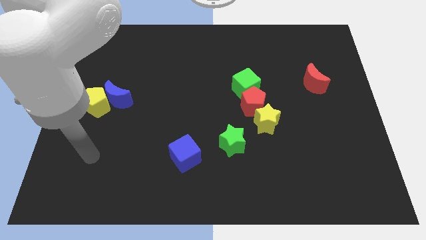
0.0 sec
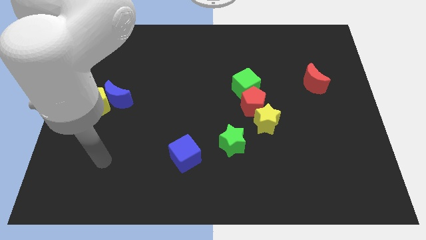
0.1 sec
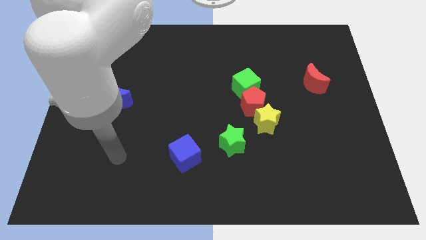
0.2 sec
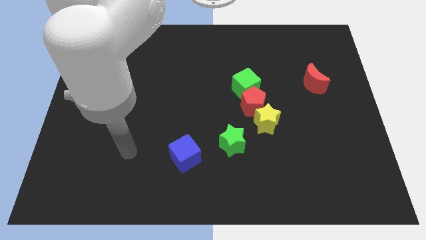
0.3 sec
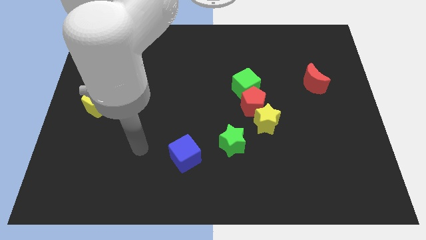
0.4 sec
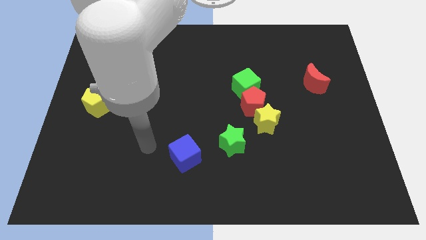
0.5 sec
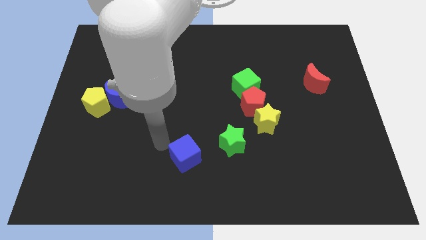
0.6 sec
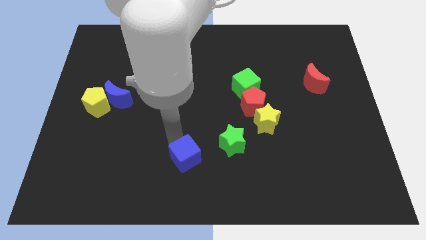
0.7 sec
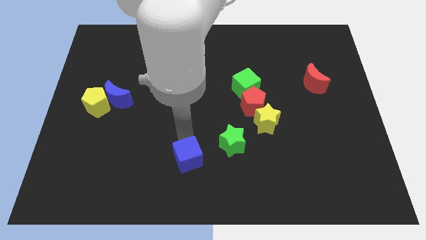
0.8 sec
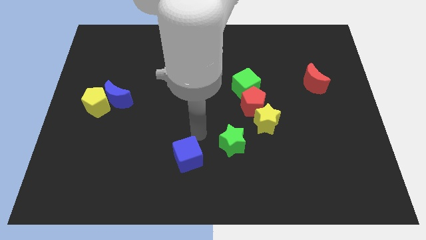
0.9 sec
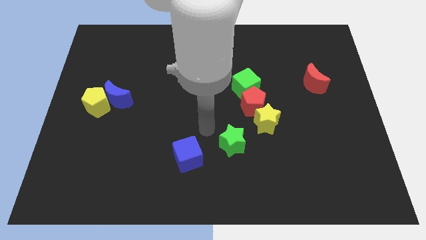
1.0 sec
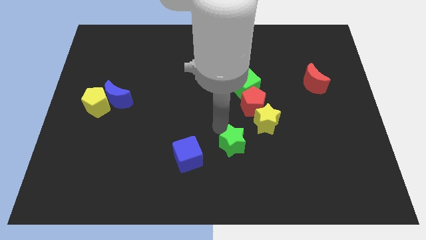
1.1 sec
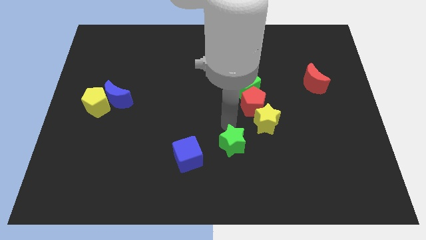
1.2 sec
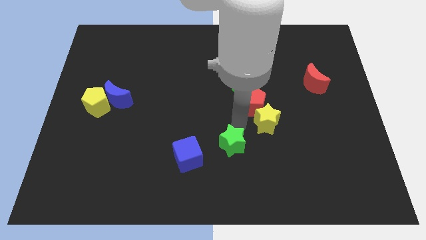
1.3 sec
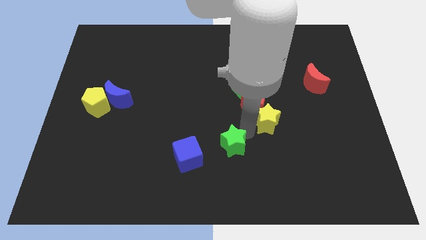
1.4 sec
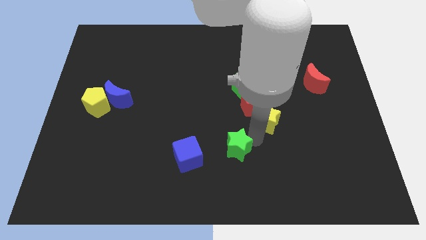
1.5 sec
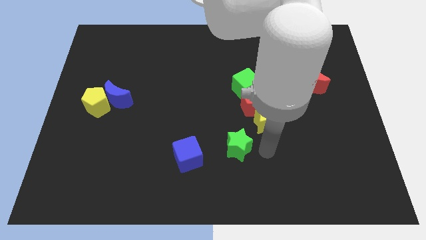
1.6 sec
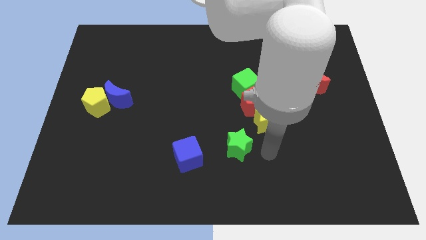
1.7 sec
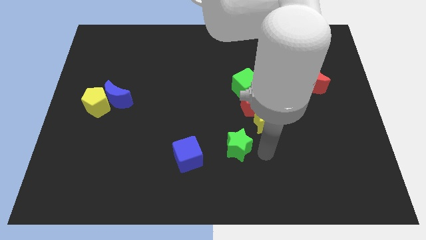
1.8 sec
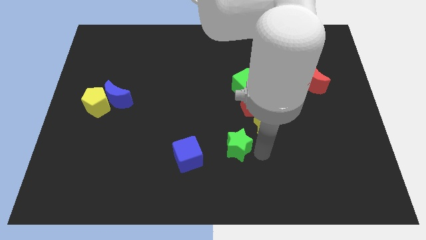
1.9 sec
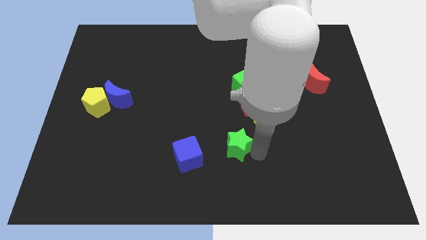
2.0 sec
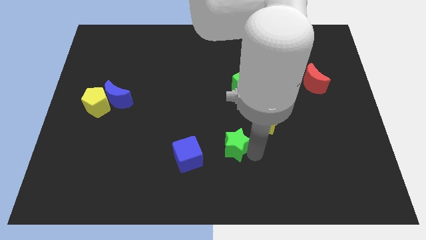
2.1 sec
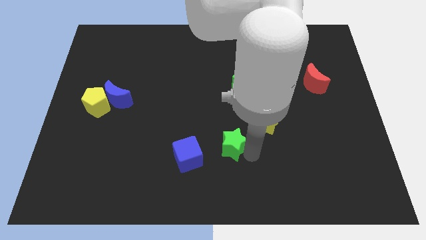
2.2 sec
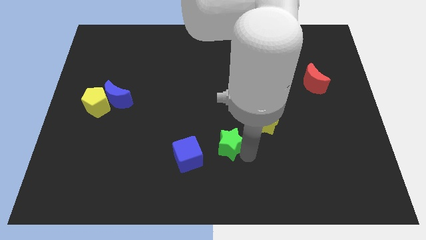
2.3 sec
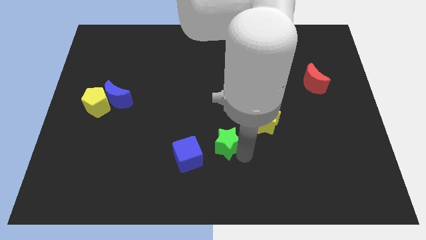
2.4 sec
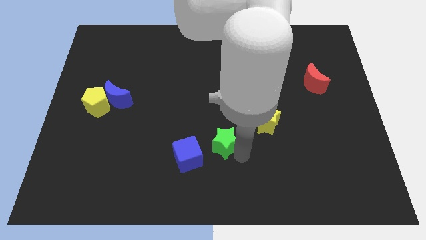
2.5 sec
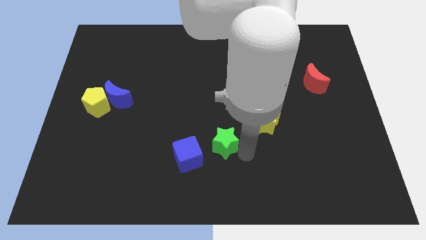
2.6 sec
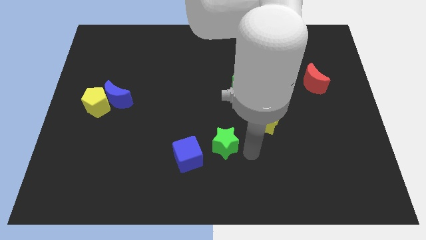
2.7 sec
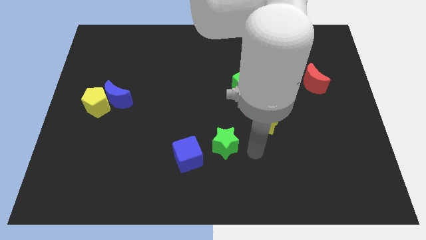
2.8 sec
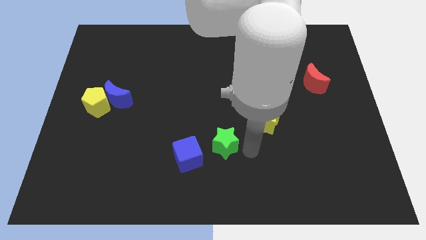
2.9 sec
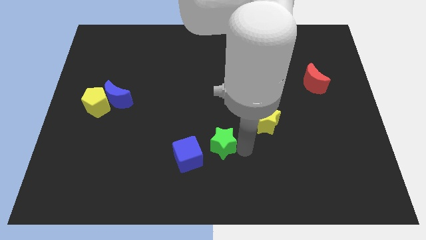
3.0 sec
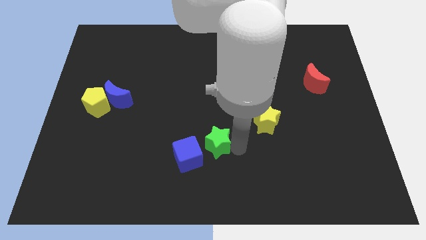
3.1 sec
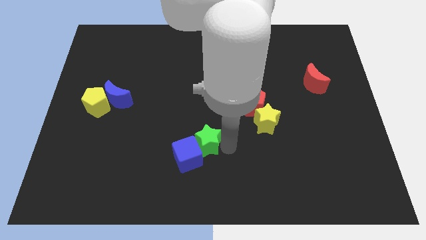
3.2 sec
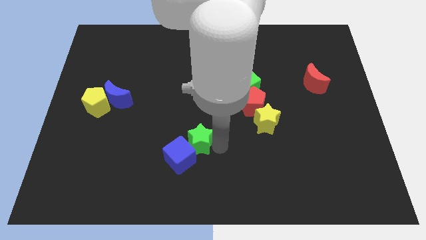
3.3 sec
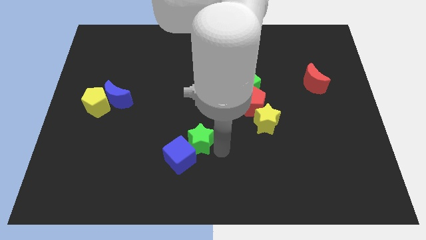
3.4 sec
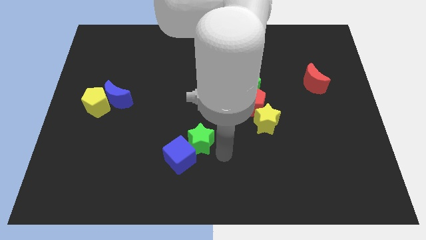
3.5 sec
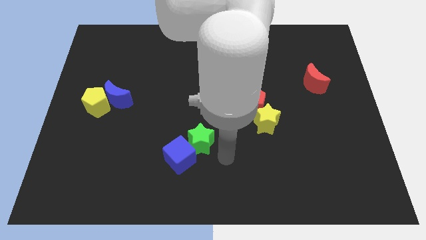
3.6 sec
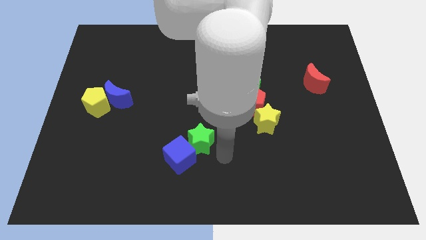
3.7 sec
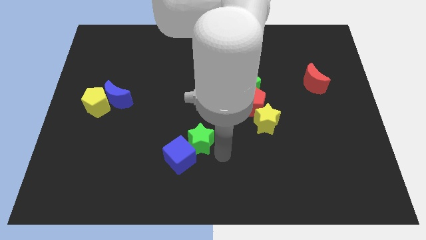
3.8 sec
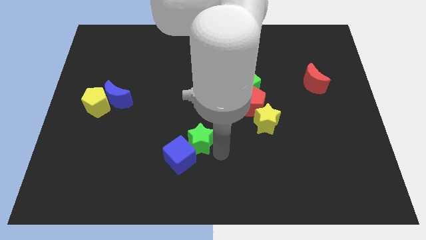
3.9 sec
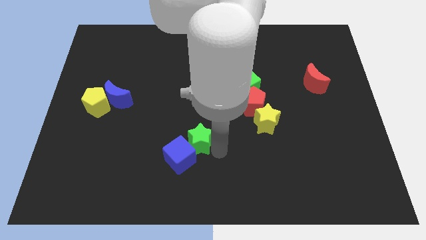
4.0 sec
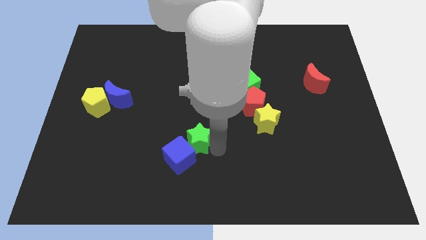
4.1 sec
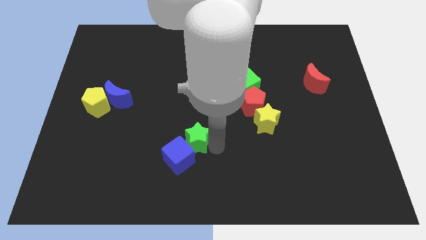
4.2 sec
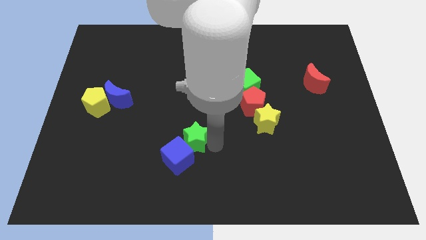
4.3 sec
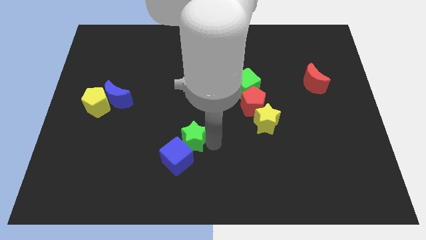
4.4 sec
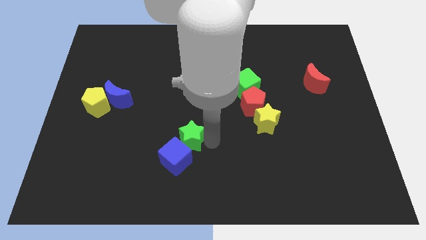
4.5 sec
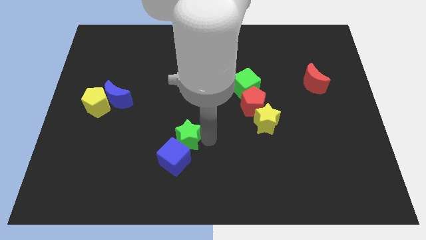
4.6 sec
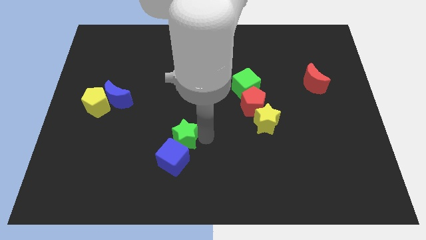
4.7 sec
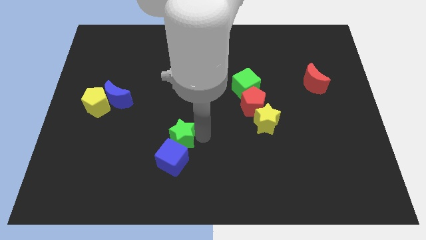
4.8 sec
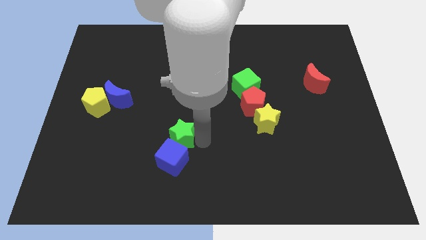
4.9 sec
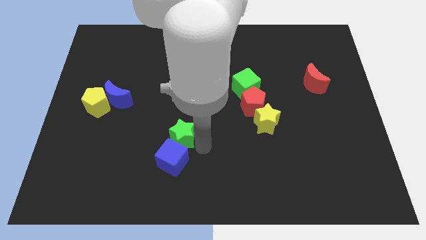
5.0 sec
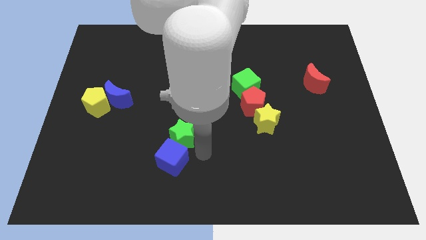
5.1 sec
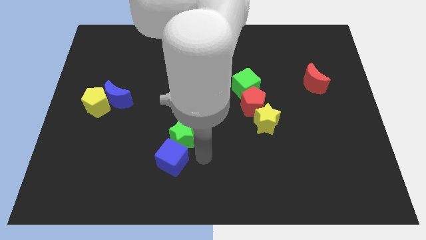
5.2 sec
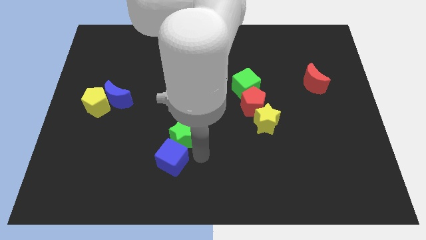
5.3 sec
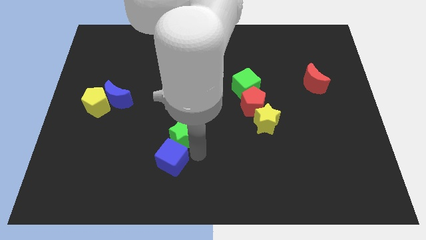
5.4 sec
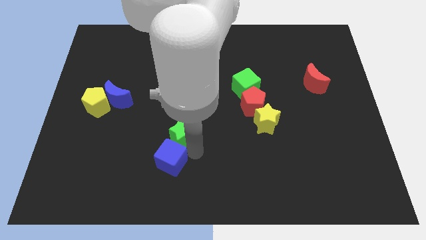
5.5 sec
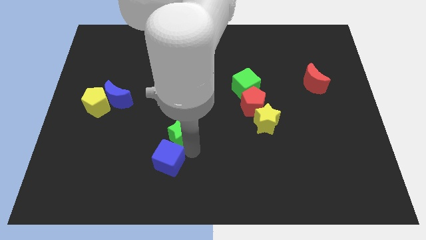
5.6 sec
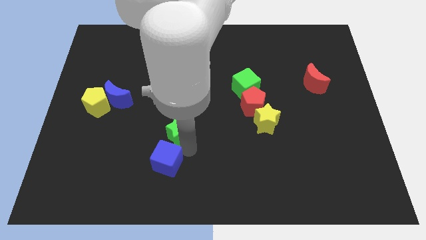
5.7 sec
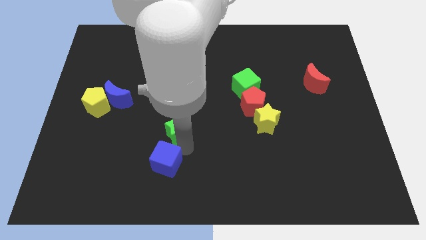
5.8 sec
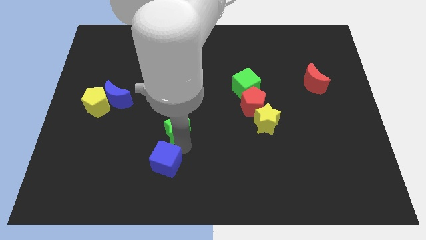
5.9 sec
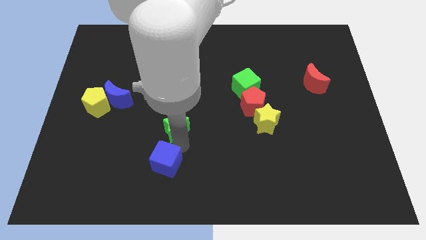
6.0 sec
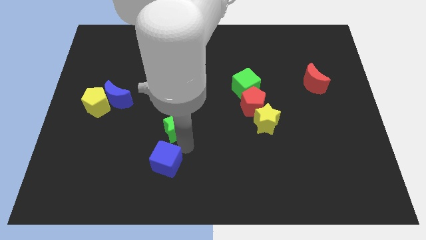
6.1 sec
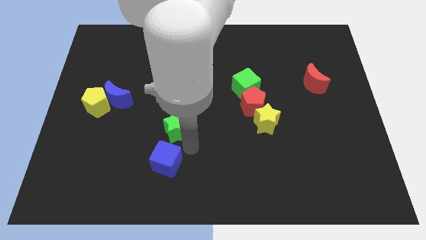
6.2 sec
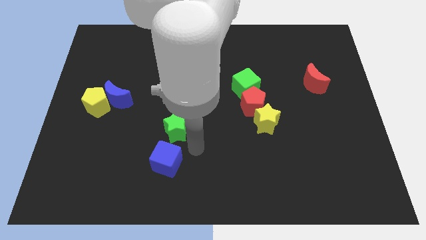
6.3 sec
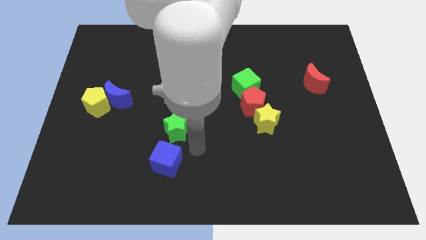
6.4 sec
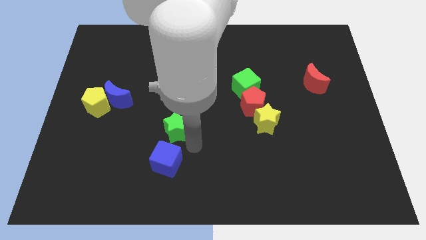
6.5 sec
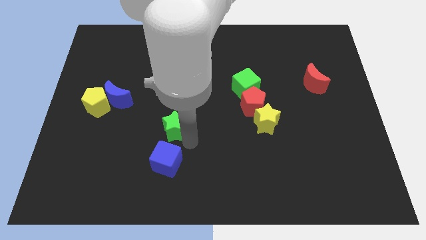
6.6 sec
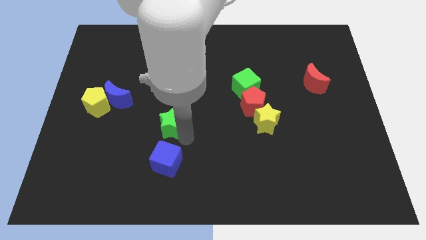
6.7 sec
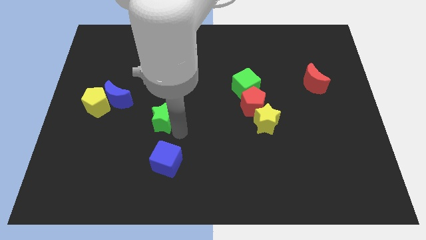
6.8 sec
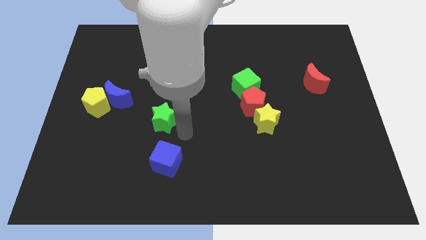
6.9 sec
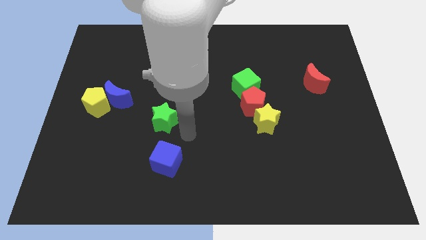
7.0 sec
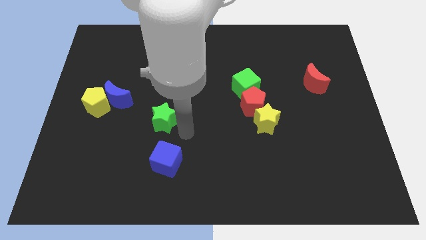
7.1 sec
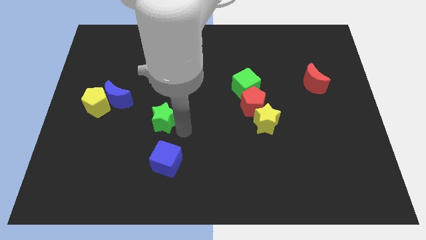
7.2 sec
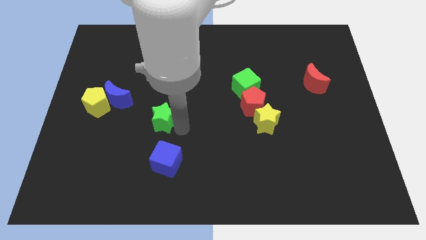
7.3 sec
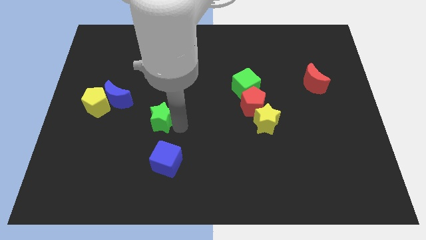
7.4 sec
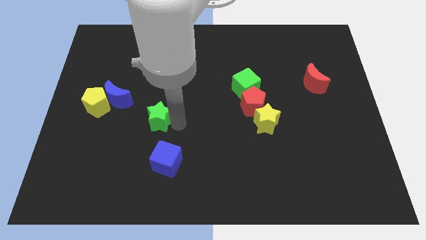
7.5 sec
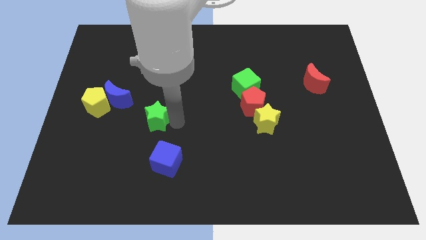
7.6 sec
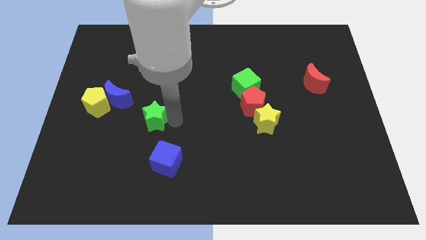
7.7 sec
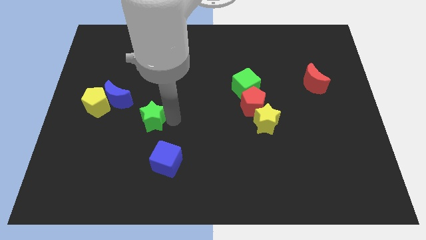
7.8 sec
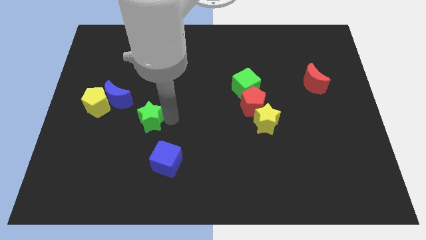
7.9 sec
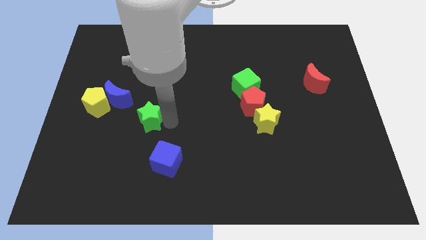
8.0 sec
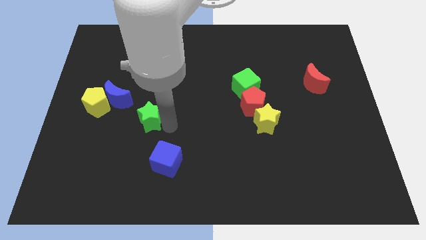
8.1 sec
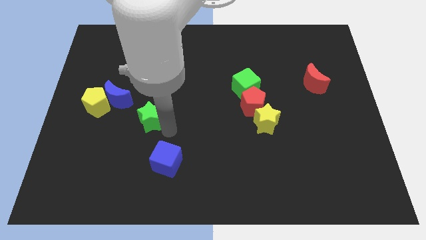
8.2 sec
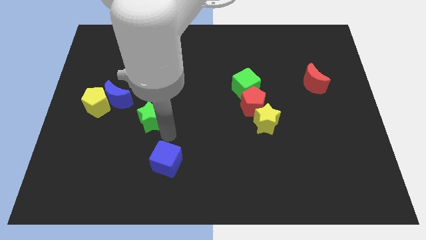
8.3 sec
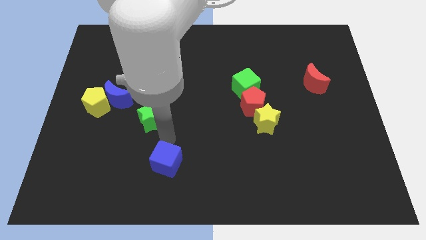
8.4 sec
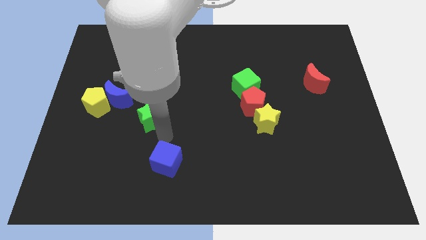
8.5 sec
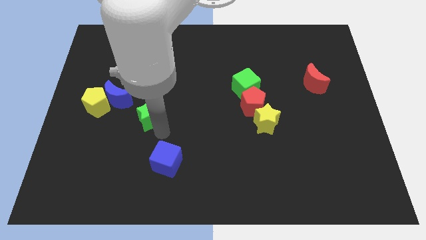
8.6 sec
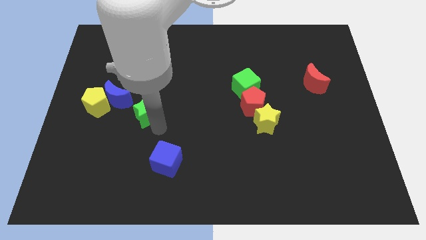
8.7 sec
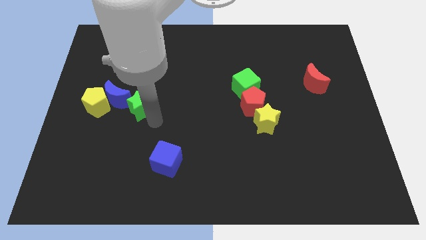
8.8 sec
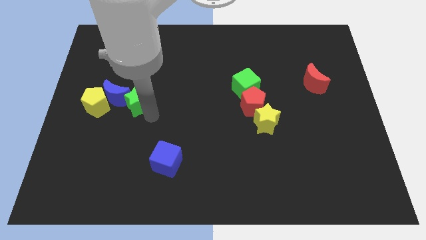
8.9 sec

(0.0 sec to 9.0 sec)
slide the green star next to the blue moon
